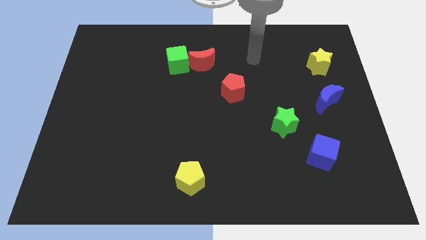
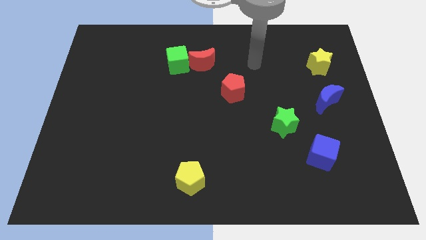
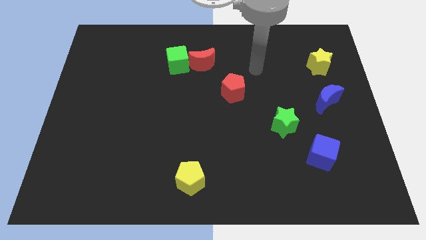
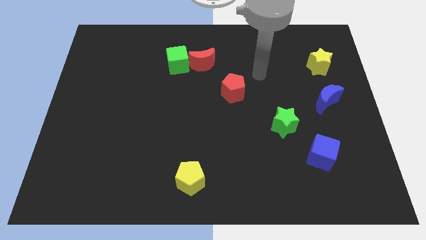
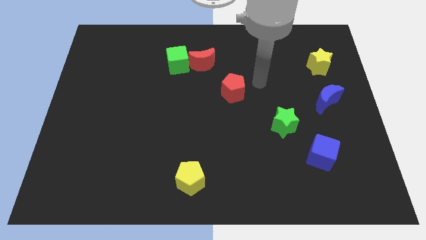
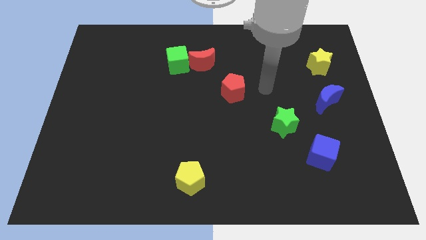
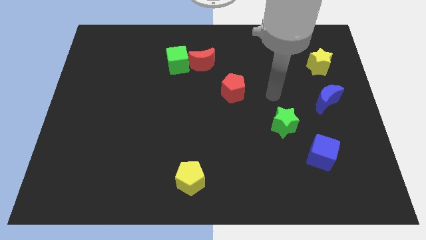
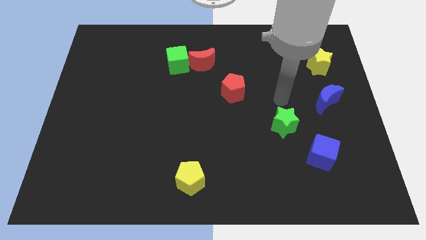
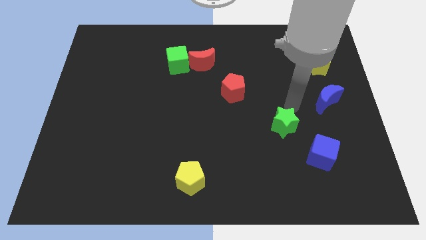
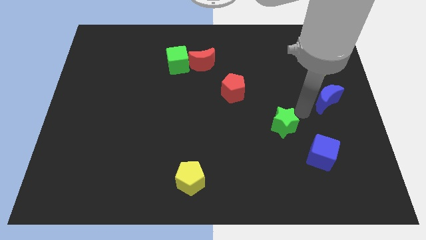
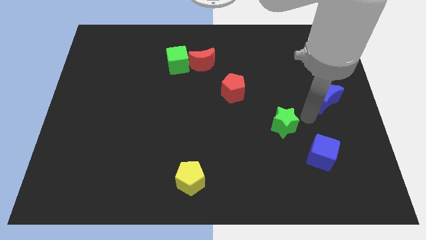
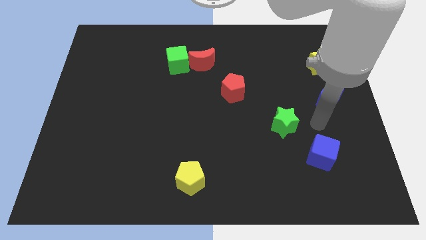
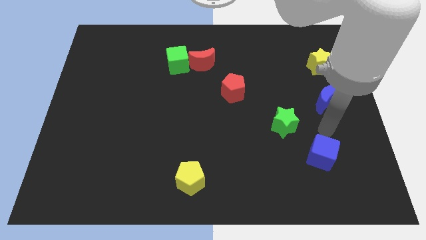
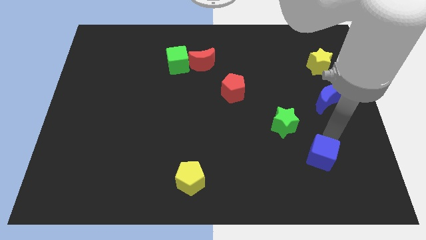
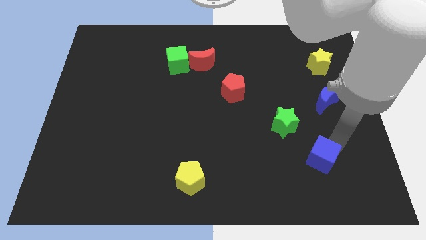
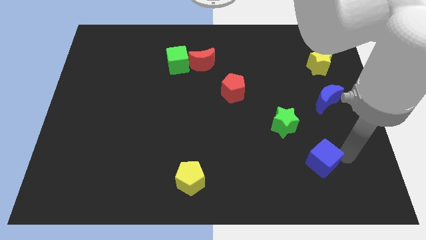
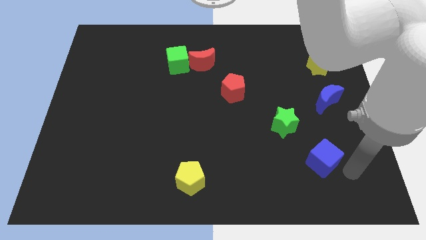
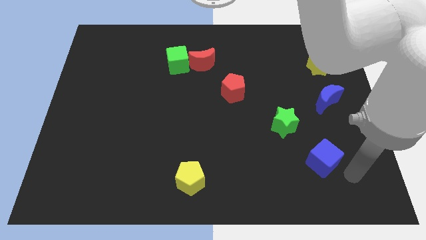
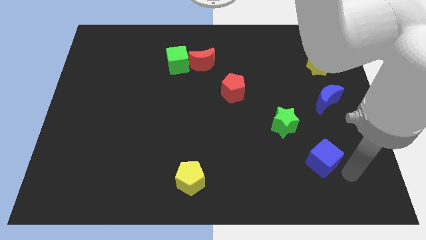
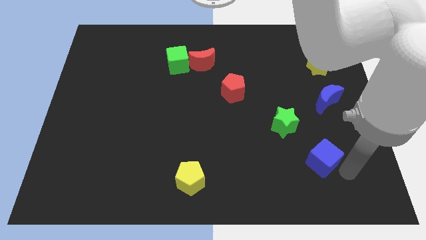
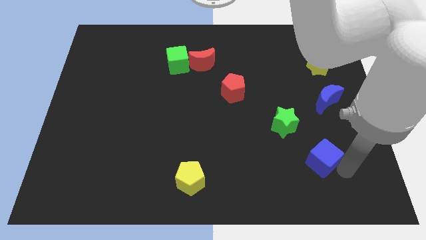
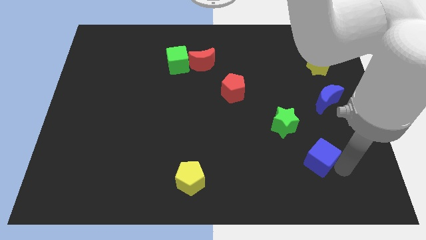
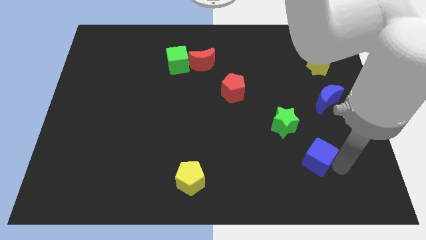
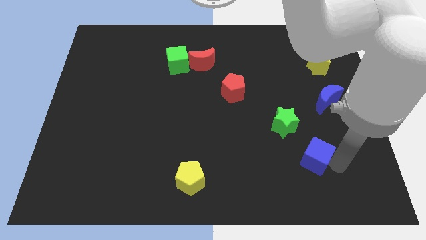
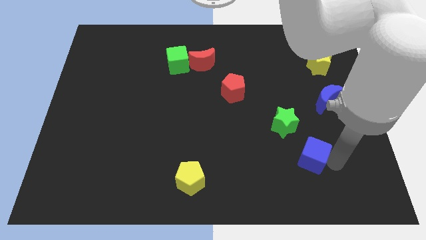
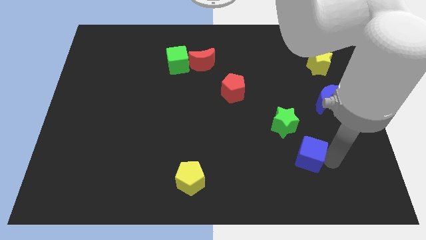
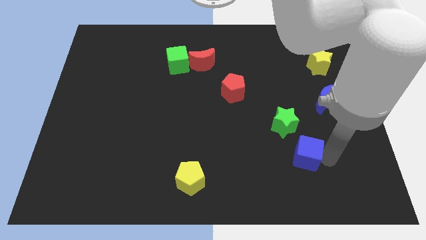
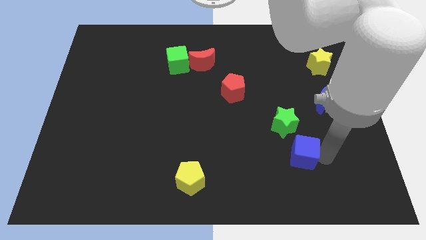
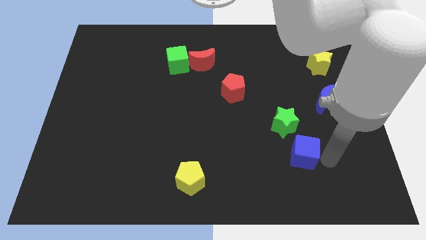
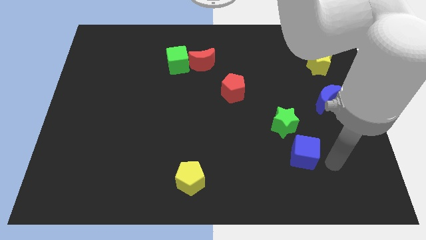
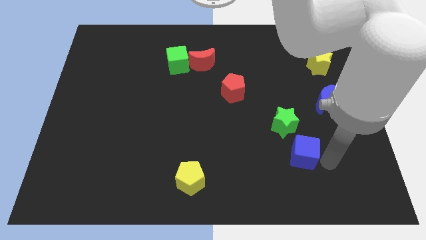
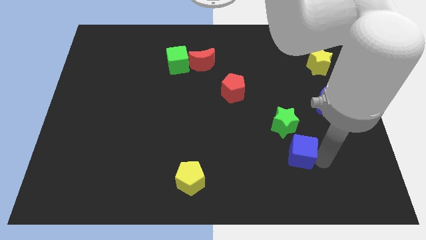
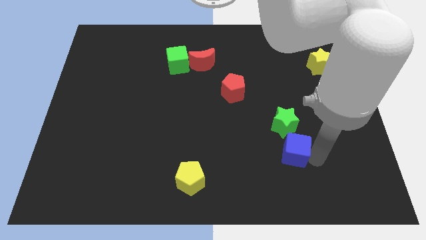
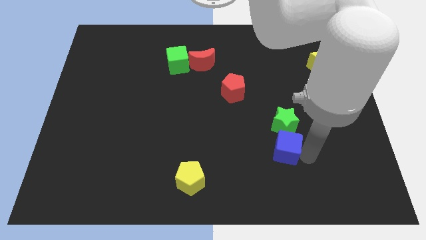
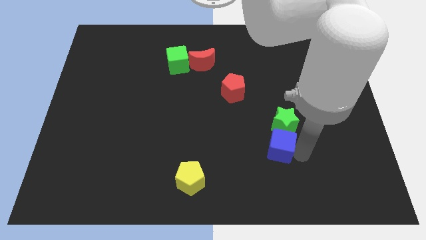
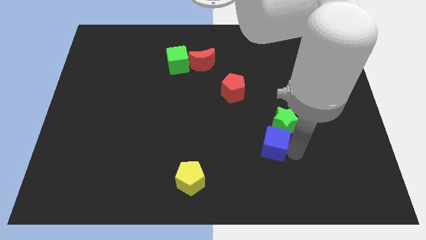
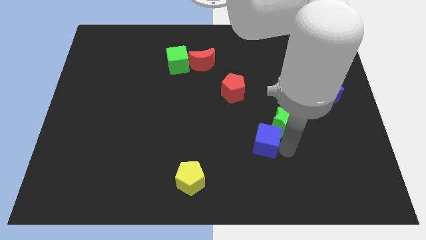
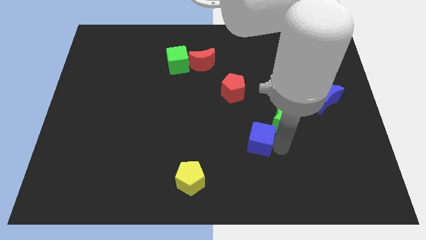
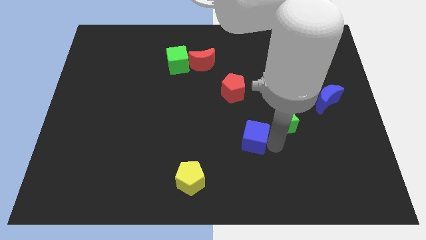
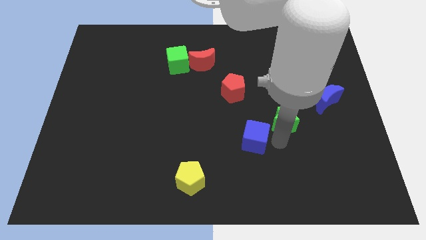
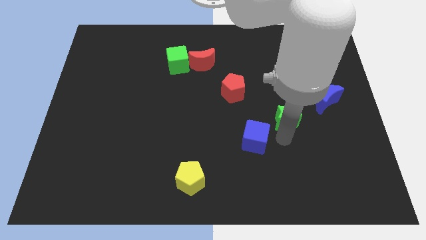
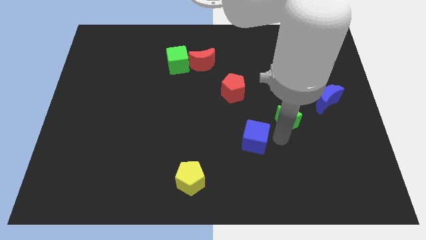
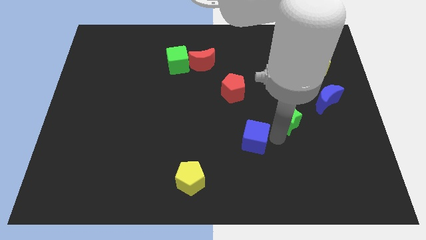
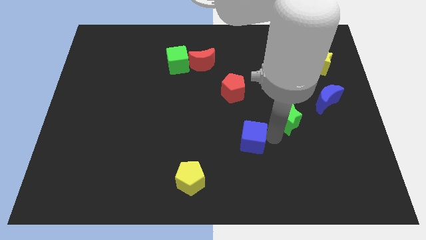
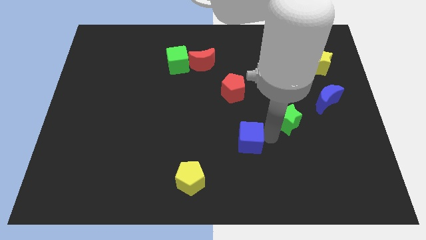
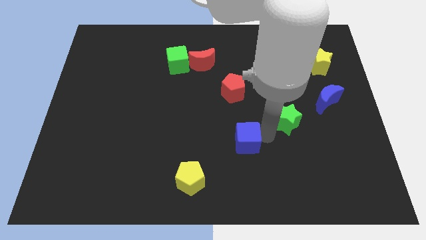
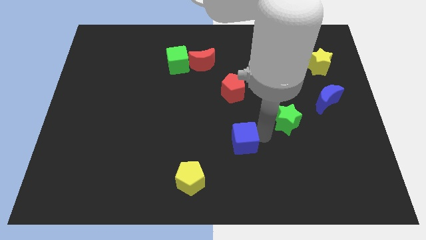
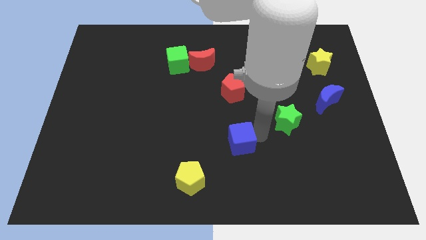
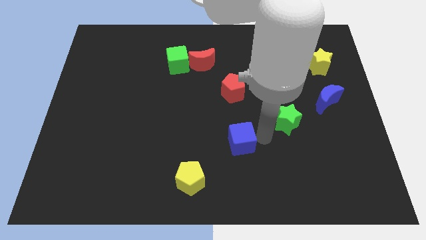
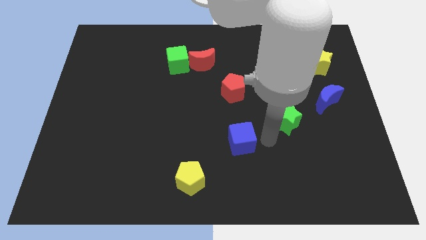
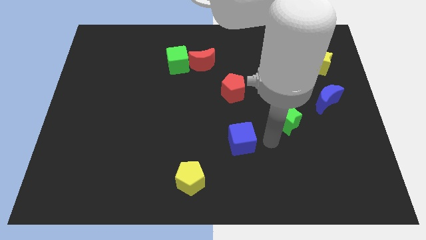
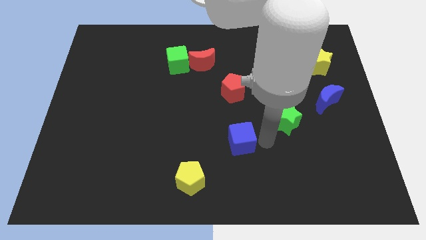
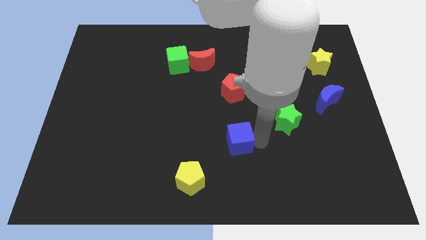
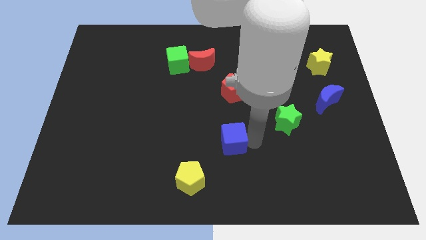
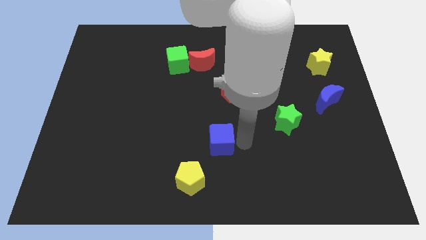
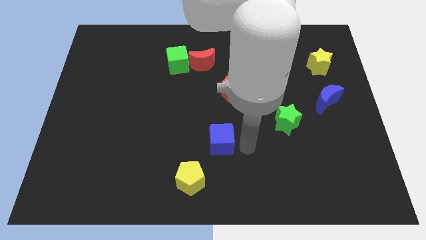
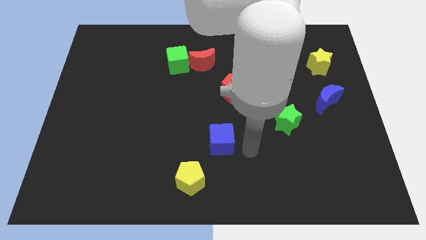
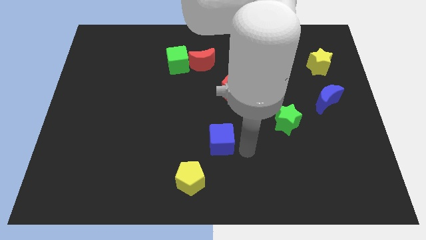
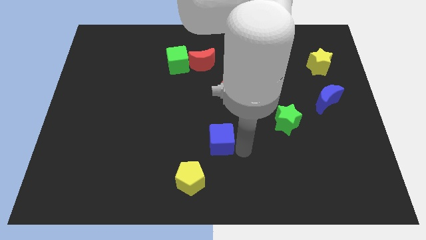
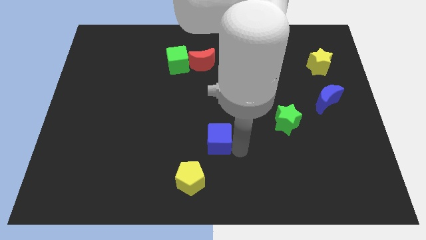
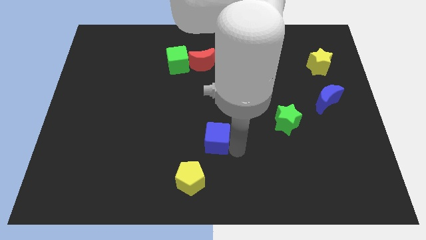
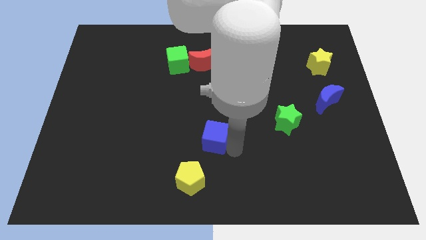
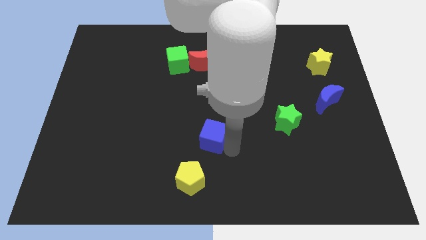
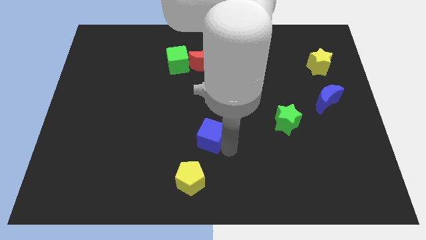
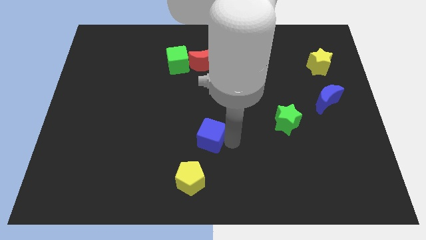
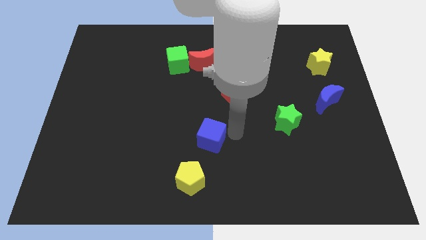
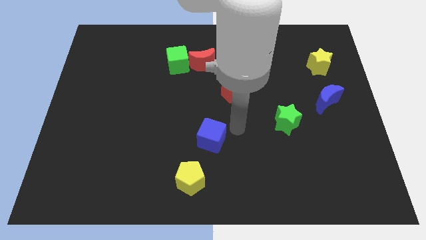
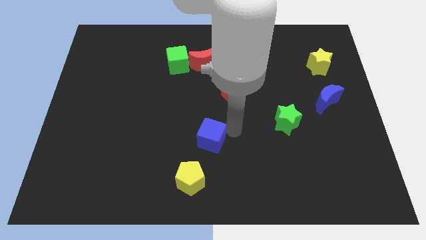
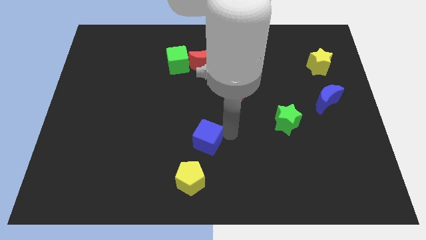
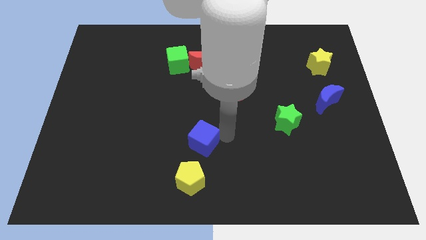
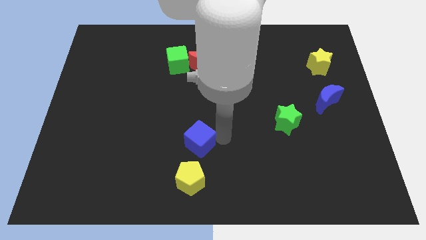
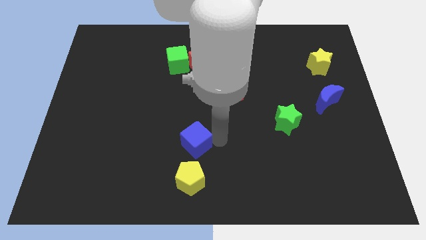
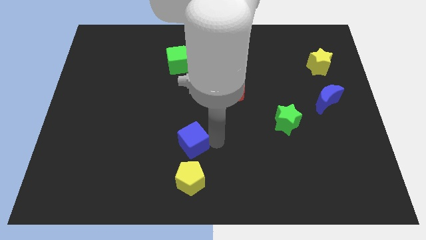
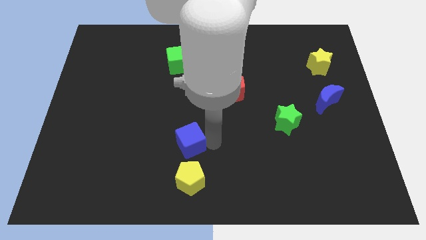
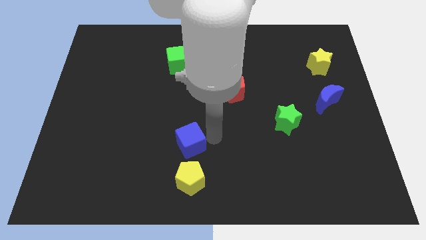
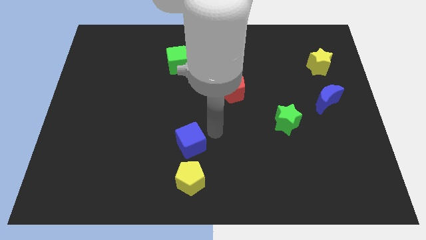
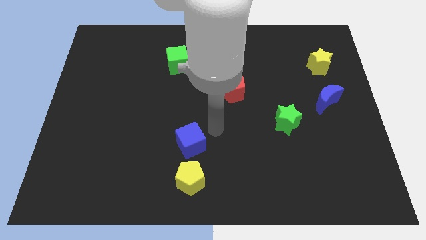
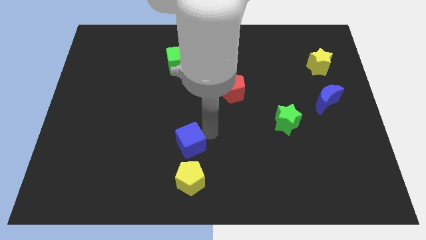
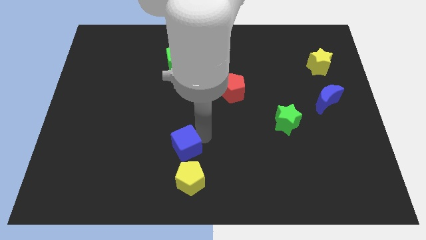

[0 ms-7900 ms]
slide the blue cube to the top left of the yellow pentagon

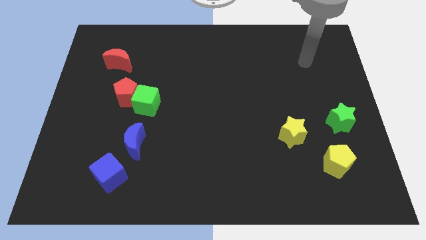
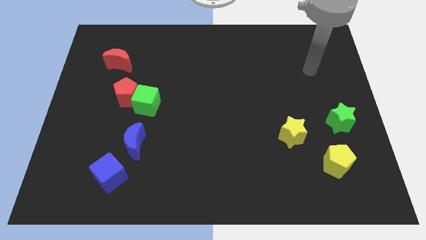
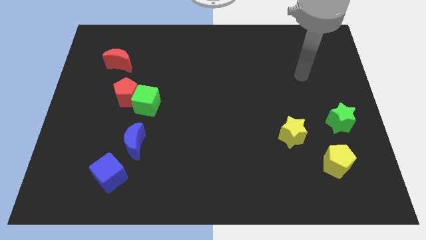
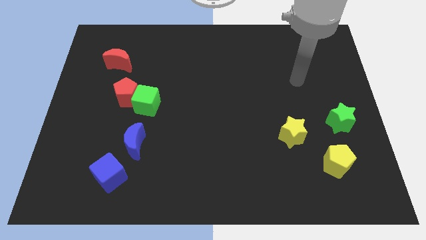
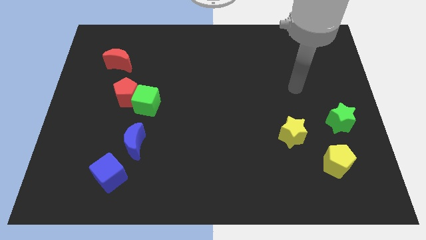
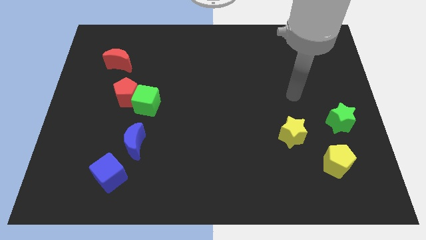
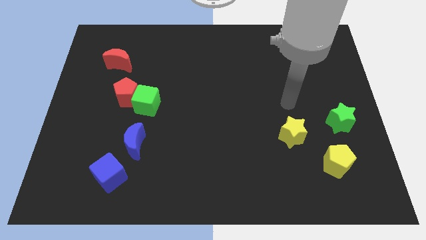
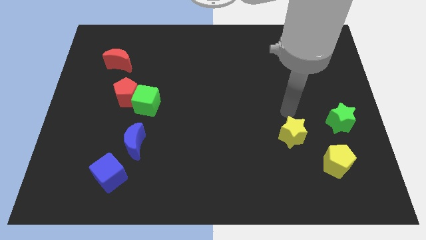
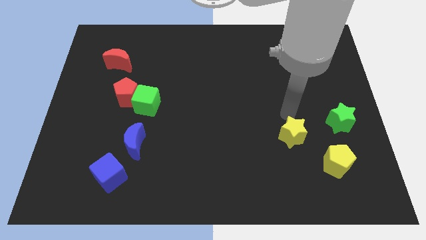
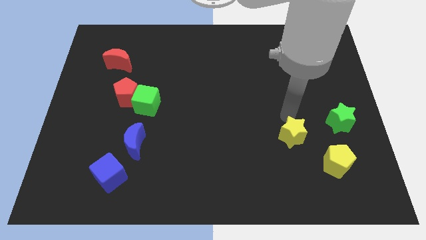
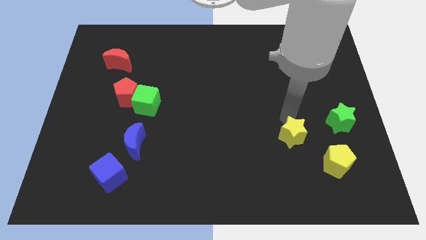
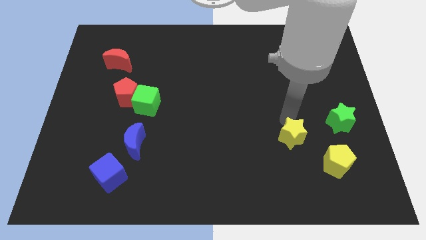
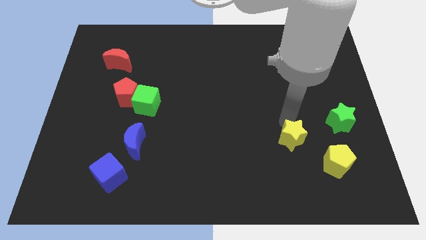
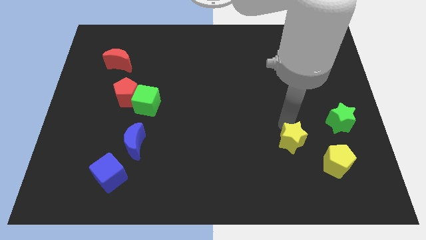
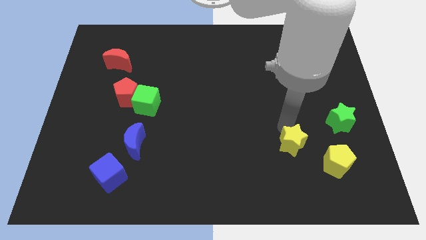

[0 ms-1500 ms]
move the yellow star to the left side of the yellow pentagon
